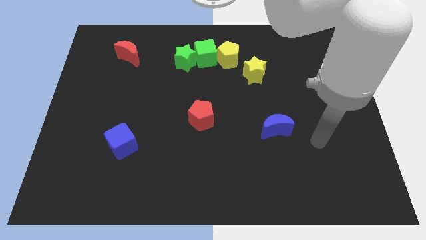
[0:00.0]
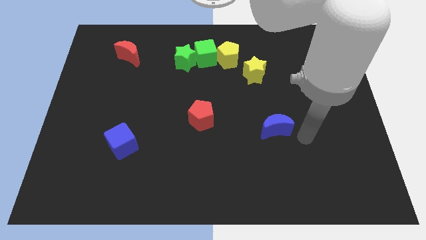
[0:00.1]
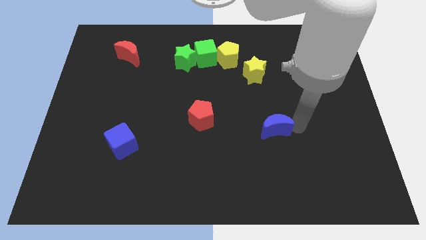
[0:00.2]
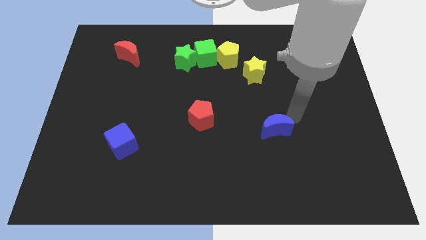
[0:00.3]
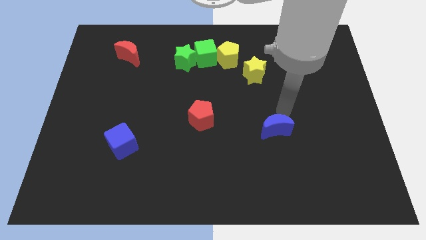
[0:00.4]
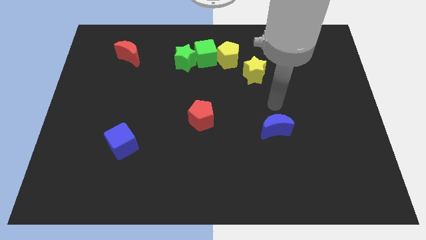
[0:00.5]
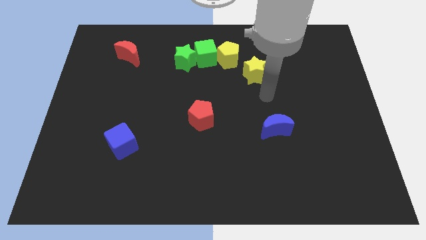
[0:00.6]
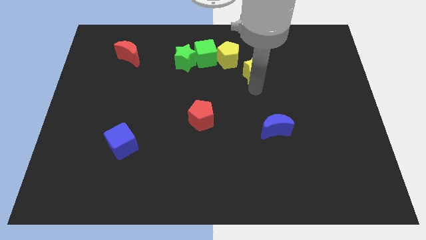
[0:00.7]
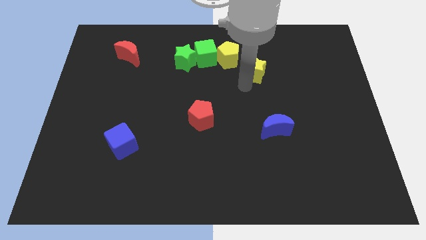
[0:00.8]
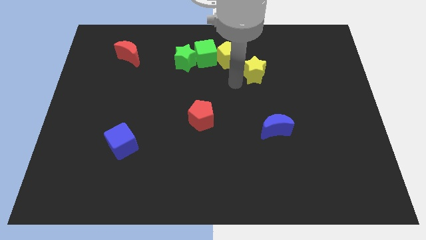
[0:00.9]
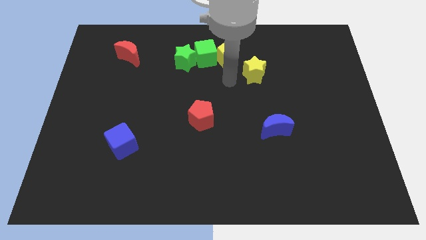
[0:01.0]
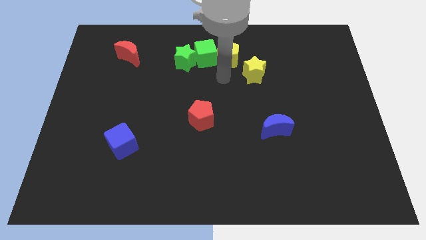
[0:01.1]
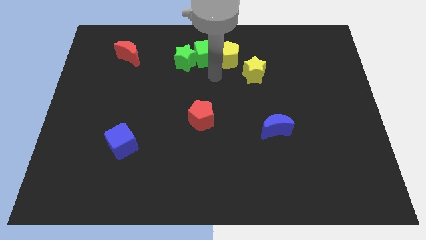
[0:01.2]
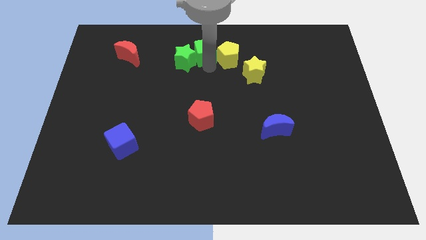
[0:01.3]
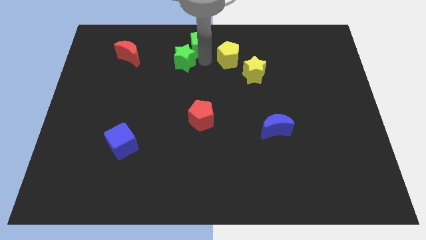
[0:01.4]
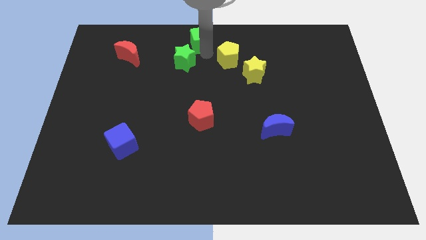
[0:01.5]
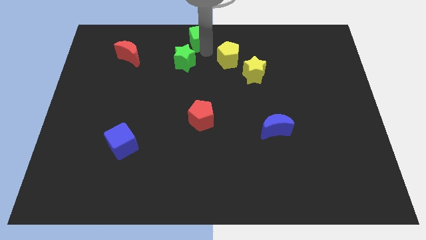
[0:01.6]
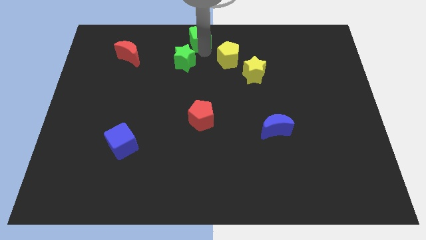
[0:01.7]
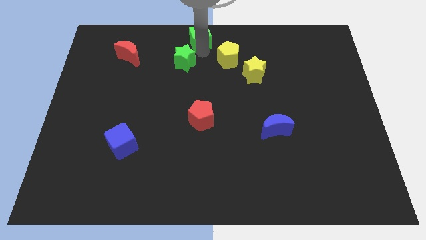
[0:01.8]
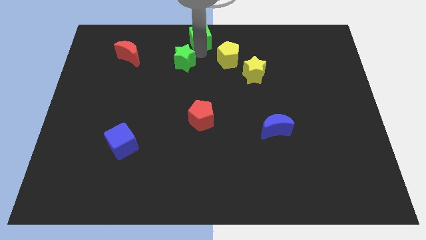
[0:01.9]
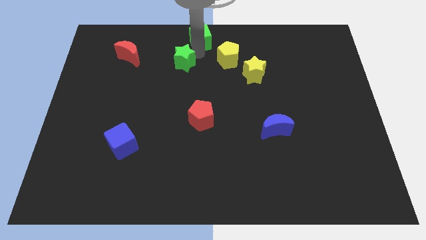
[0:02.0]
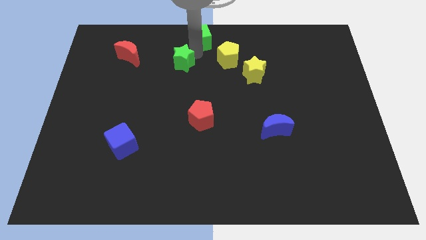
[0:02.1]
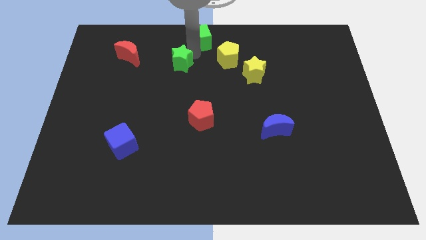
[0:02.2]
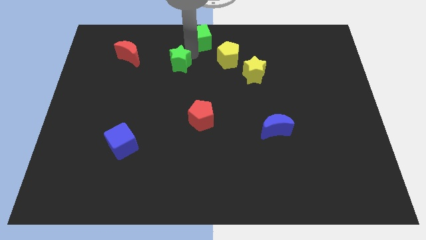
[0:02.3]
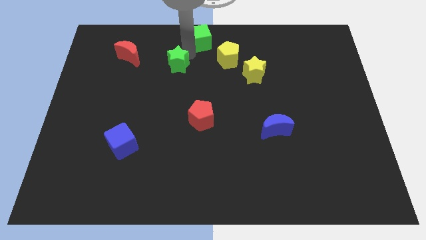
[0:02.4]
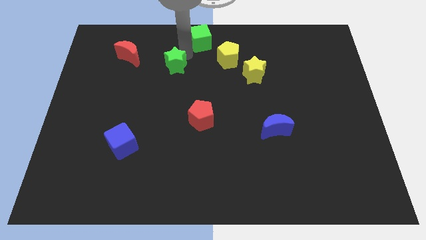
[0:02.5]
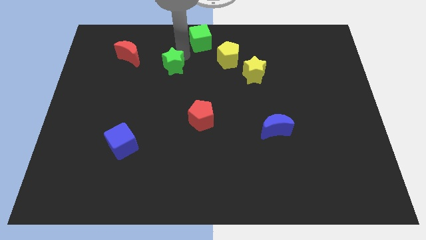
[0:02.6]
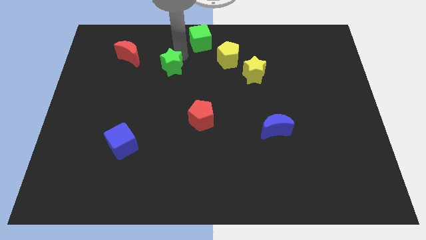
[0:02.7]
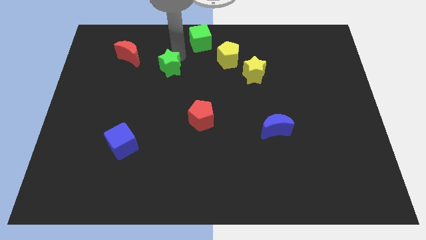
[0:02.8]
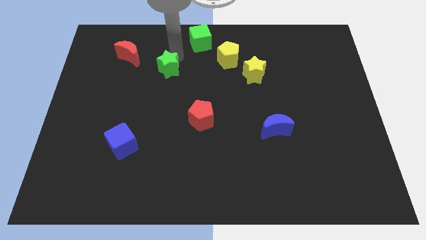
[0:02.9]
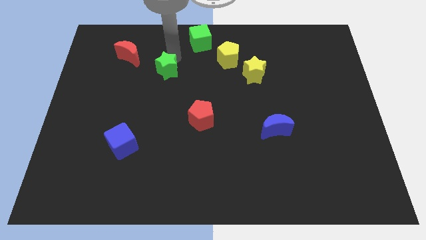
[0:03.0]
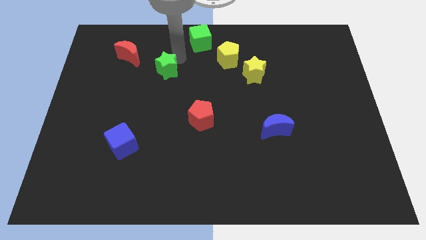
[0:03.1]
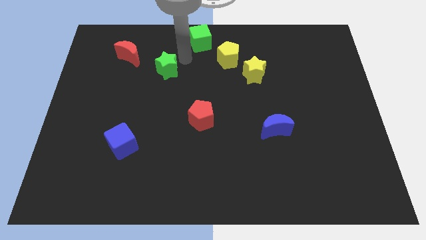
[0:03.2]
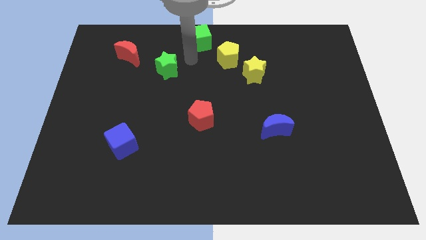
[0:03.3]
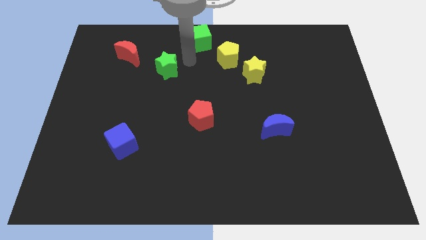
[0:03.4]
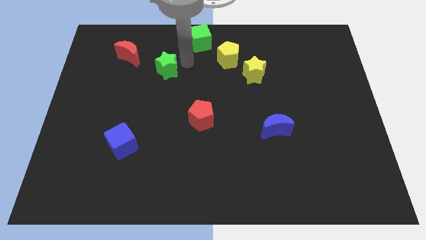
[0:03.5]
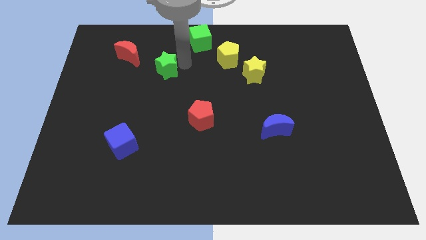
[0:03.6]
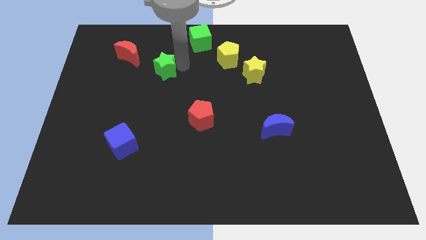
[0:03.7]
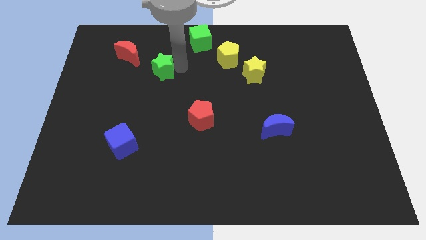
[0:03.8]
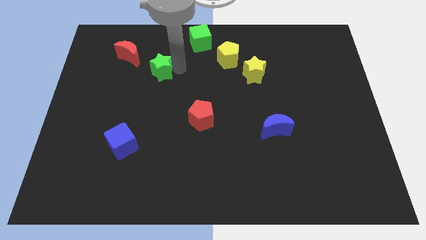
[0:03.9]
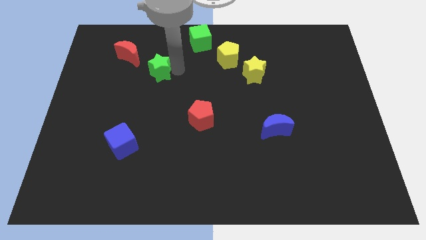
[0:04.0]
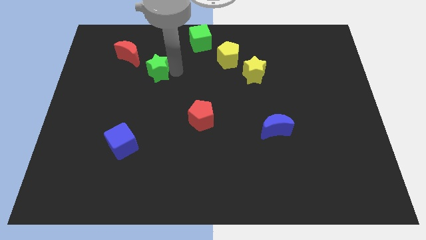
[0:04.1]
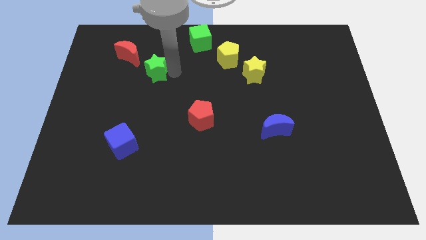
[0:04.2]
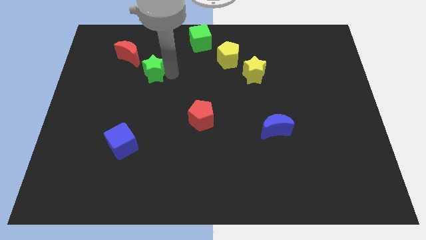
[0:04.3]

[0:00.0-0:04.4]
slide the green star left somewhat

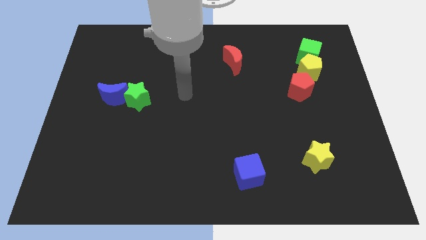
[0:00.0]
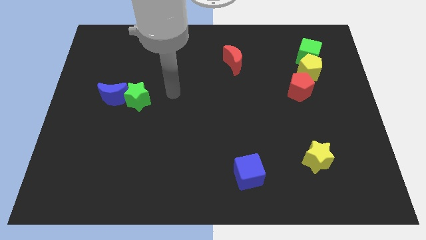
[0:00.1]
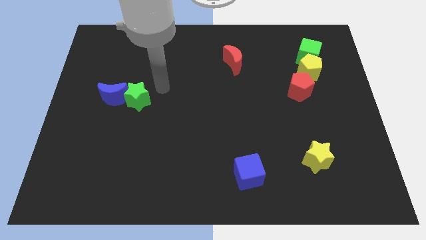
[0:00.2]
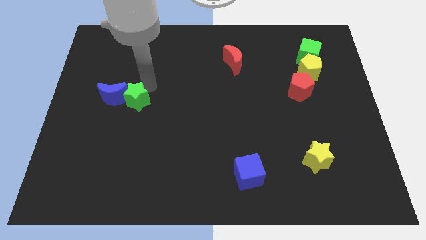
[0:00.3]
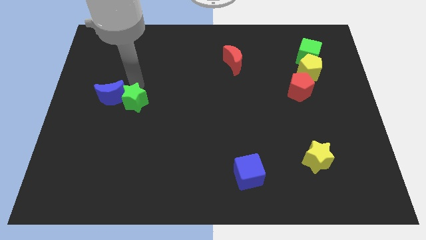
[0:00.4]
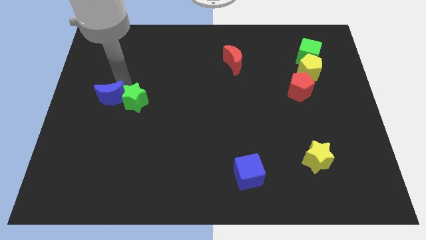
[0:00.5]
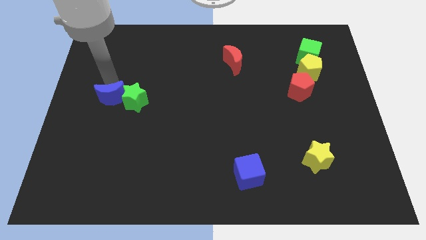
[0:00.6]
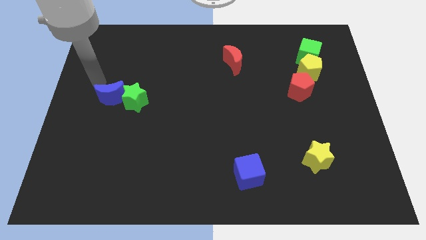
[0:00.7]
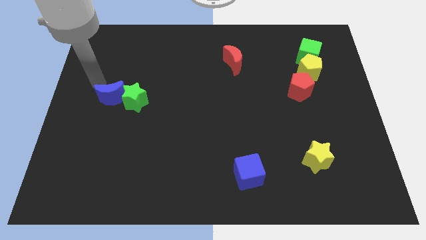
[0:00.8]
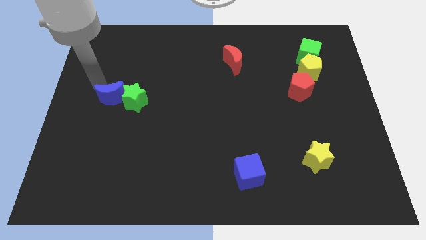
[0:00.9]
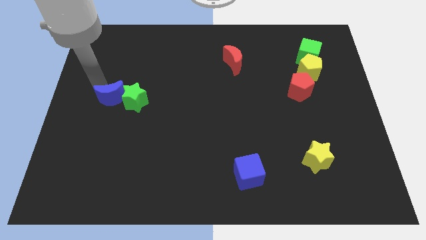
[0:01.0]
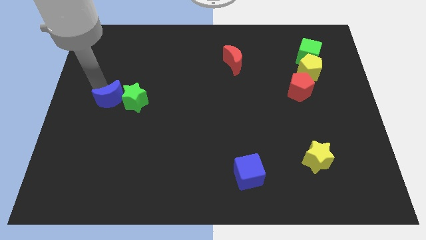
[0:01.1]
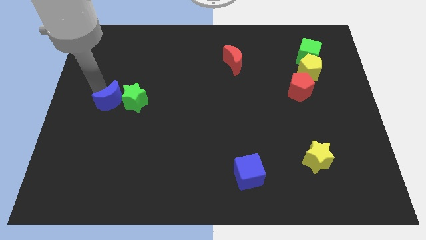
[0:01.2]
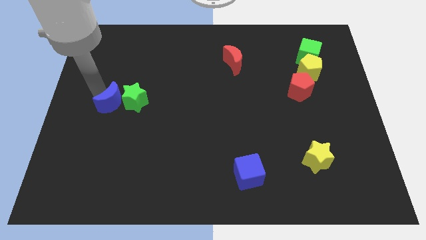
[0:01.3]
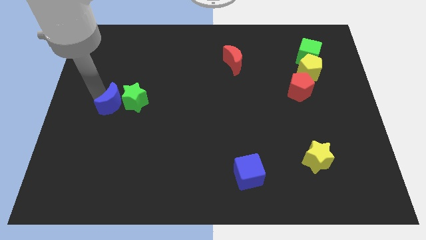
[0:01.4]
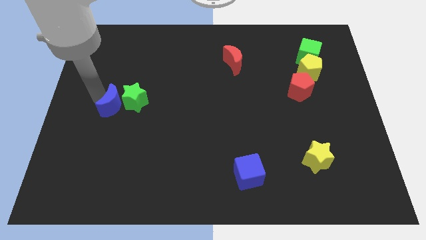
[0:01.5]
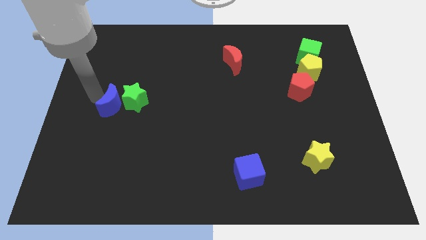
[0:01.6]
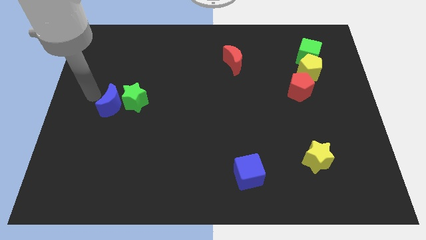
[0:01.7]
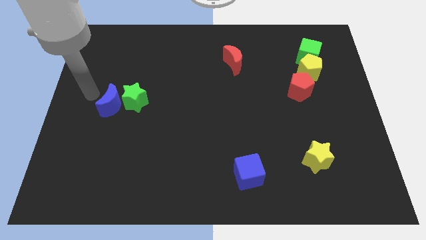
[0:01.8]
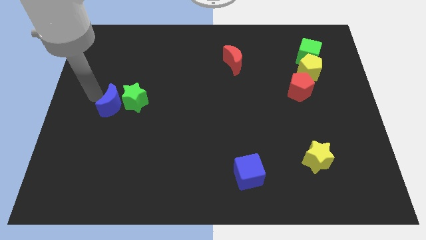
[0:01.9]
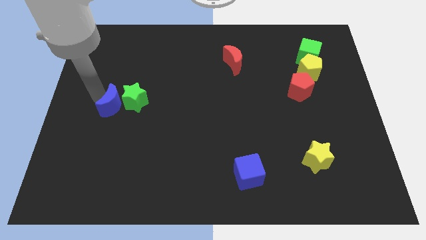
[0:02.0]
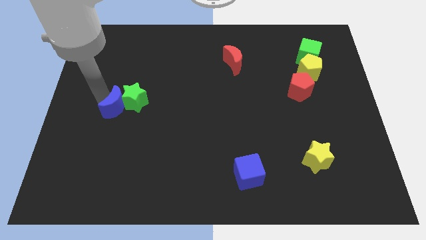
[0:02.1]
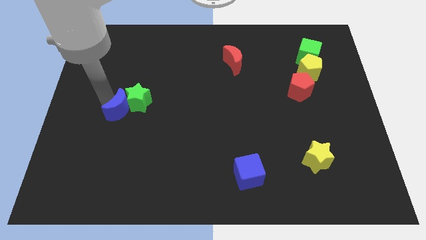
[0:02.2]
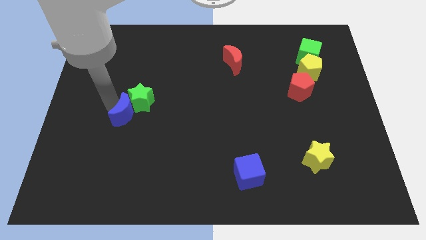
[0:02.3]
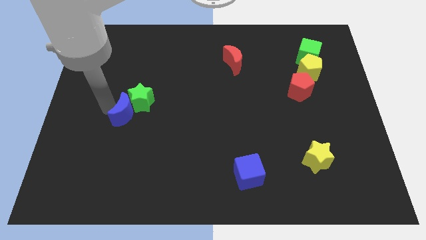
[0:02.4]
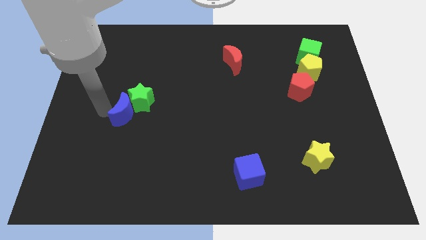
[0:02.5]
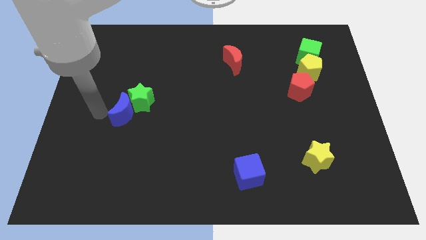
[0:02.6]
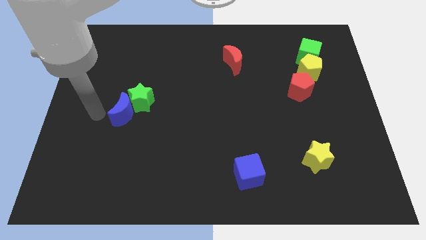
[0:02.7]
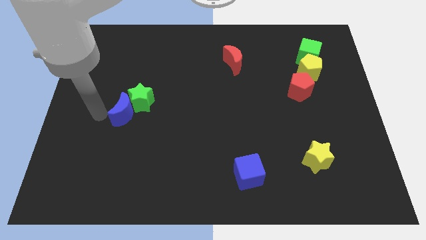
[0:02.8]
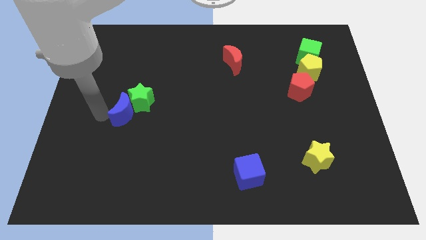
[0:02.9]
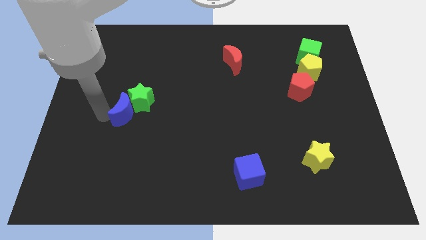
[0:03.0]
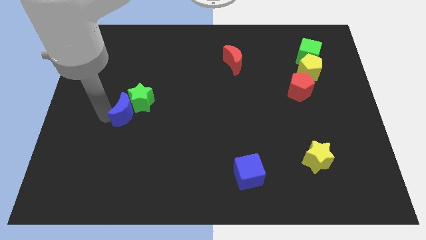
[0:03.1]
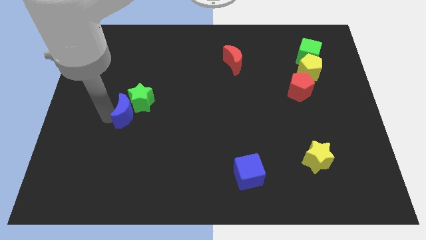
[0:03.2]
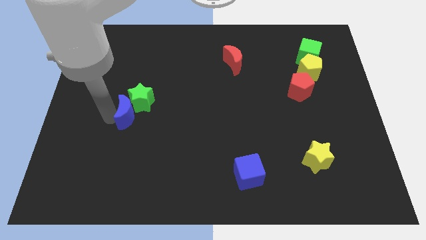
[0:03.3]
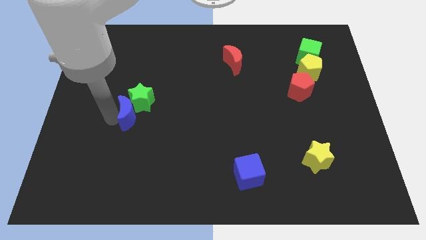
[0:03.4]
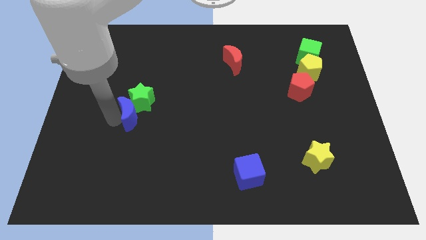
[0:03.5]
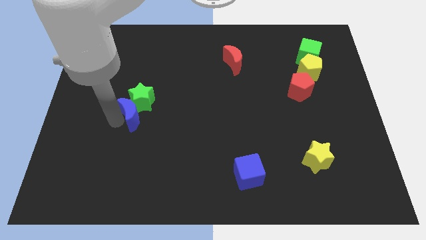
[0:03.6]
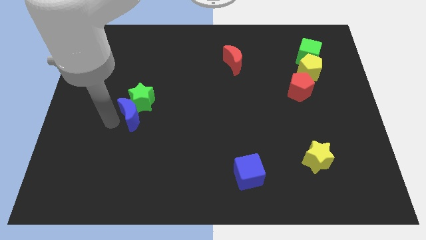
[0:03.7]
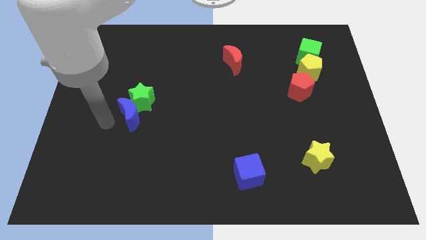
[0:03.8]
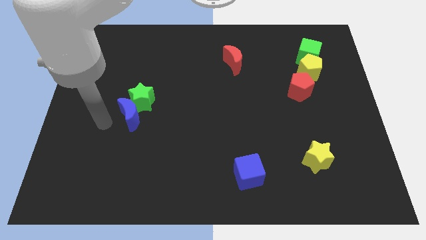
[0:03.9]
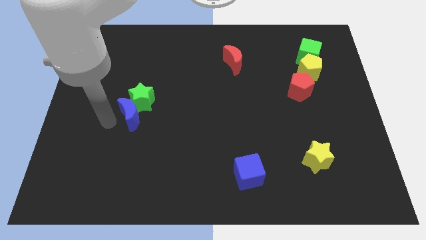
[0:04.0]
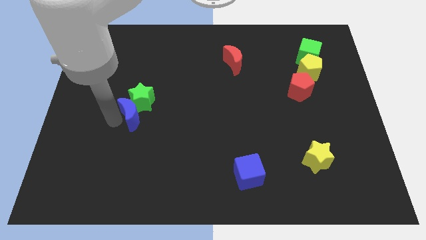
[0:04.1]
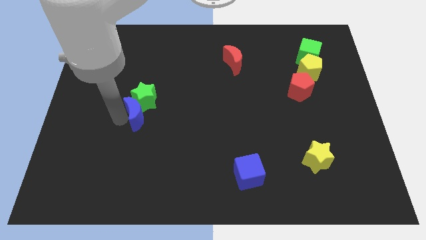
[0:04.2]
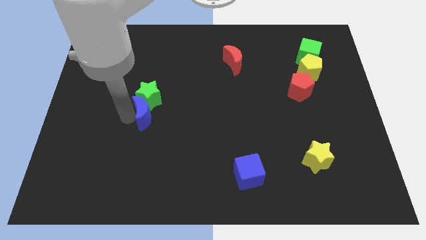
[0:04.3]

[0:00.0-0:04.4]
push the blue moon right somewhat
